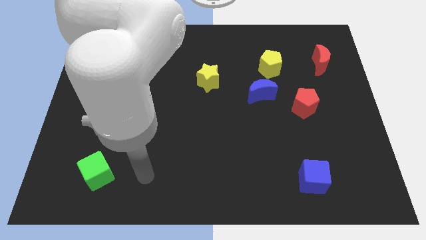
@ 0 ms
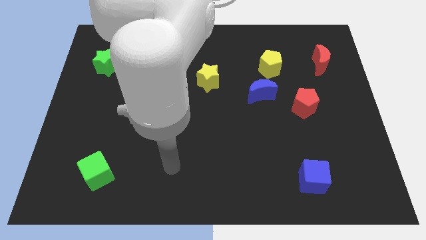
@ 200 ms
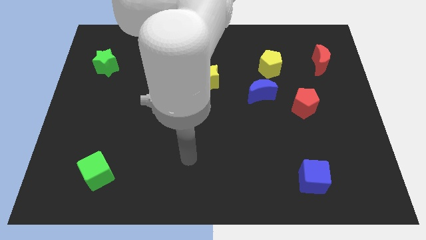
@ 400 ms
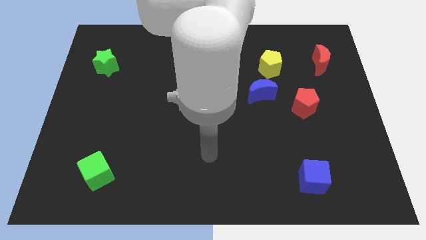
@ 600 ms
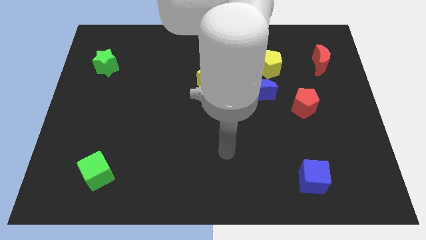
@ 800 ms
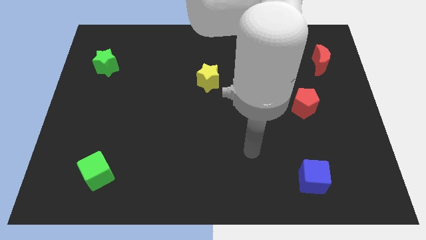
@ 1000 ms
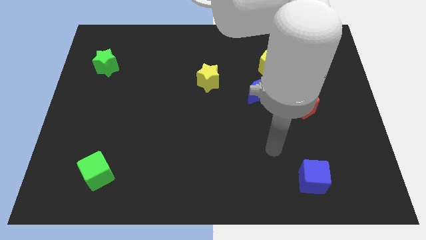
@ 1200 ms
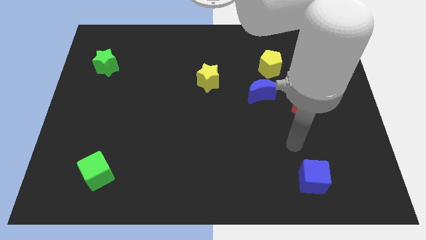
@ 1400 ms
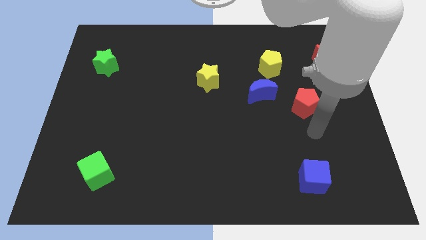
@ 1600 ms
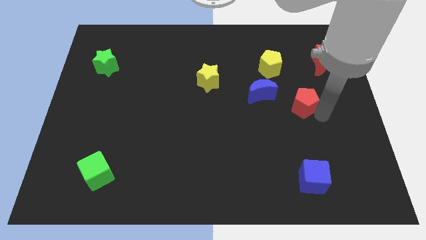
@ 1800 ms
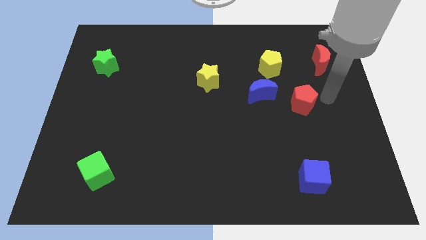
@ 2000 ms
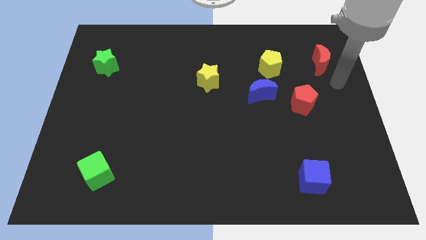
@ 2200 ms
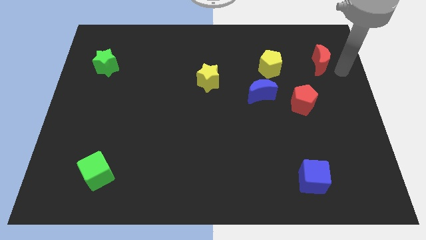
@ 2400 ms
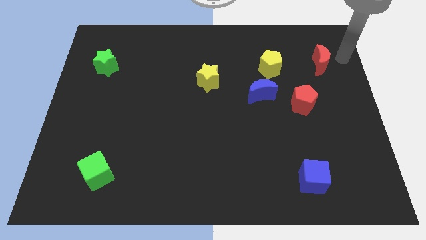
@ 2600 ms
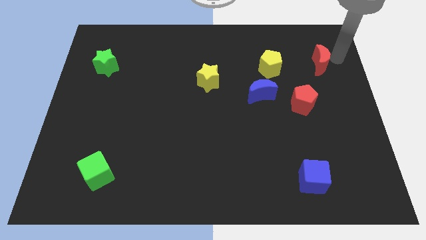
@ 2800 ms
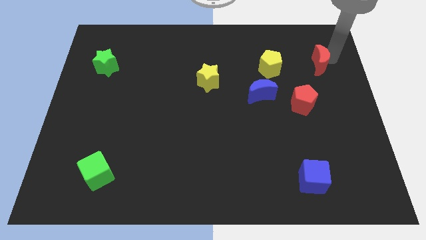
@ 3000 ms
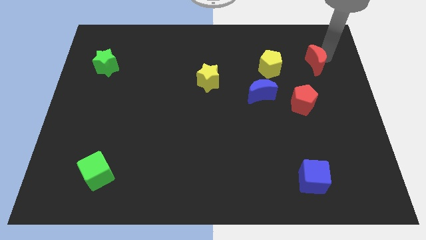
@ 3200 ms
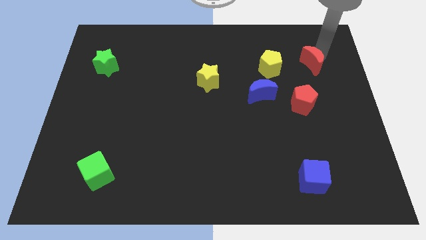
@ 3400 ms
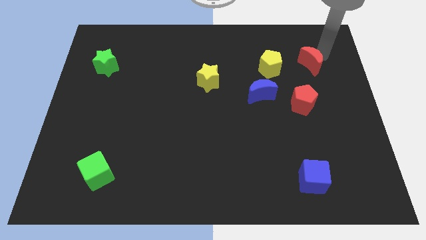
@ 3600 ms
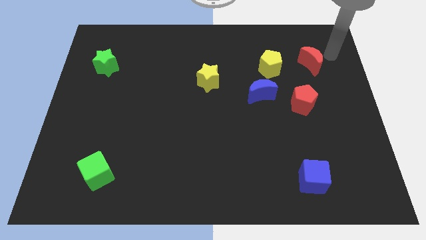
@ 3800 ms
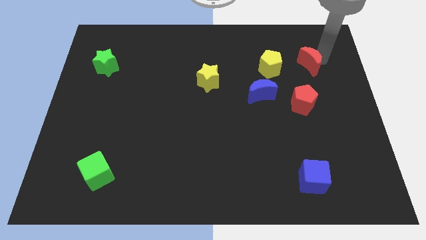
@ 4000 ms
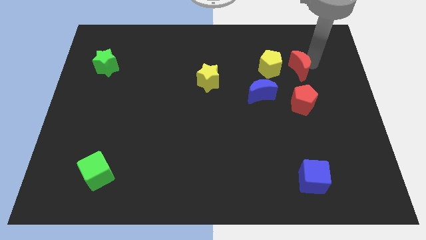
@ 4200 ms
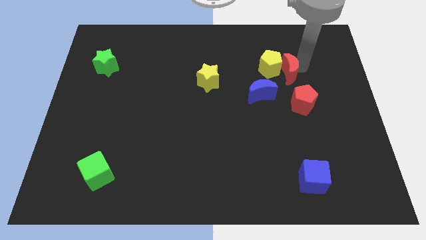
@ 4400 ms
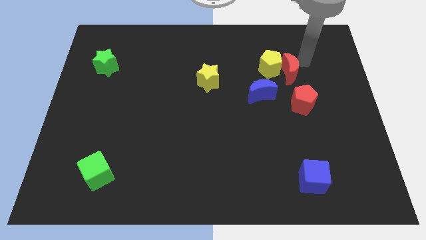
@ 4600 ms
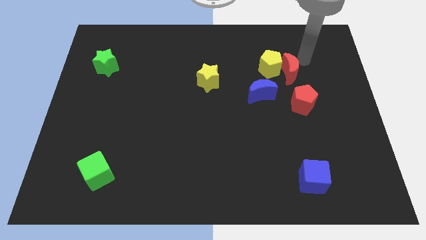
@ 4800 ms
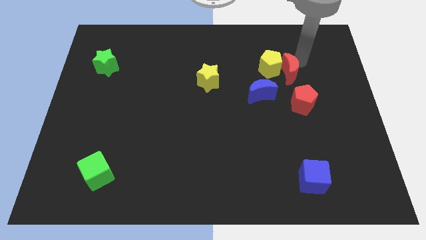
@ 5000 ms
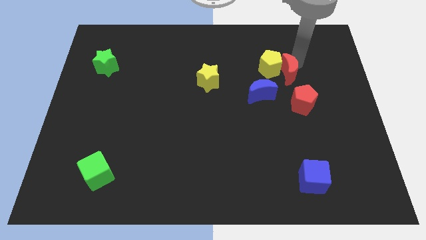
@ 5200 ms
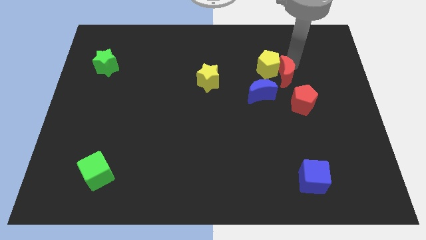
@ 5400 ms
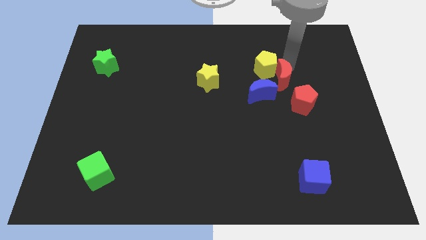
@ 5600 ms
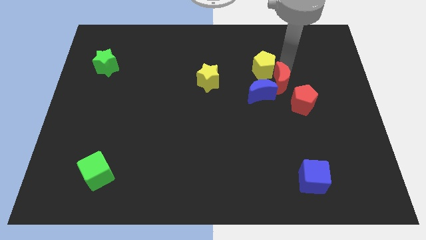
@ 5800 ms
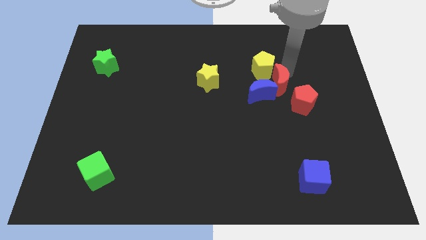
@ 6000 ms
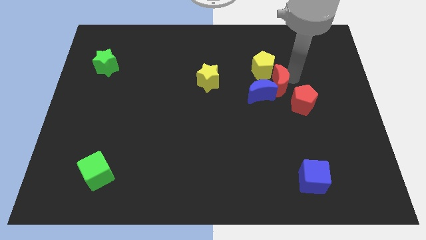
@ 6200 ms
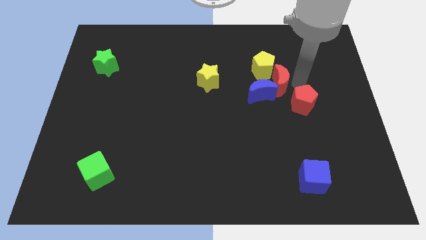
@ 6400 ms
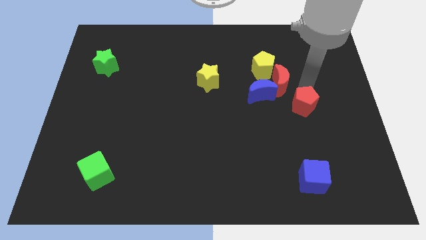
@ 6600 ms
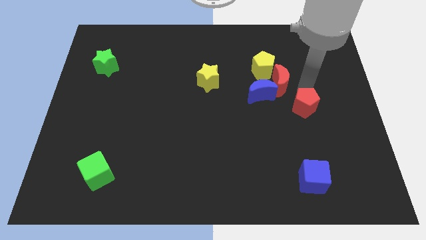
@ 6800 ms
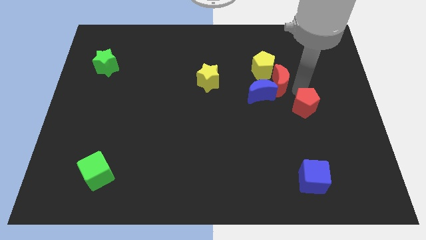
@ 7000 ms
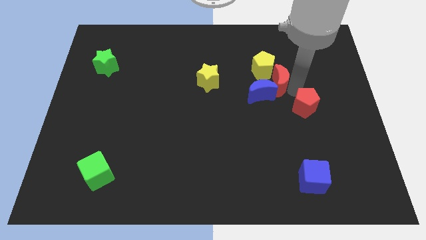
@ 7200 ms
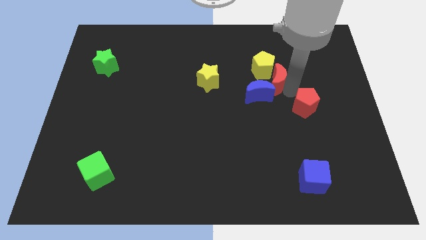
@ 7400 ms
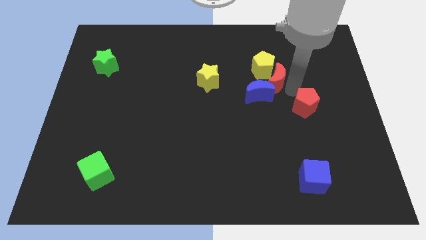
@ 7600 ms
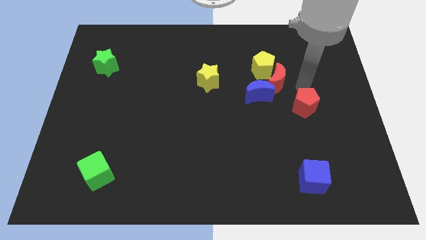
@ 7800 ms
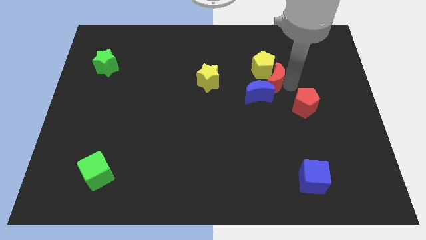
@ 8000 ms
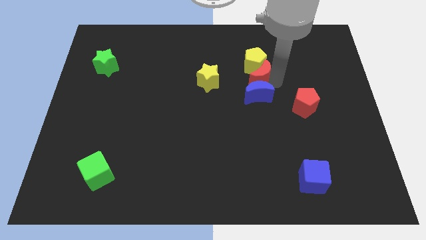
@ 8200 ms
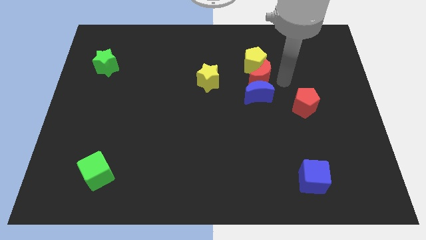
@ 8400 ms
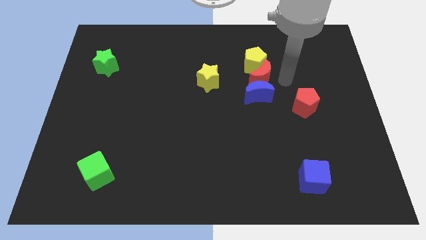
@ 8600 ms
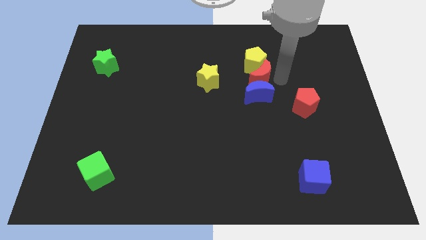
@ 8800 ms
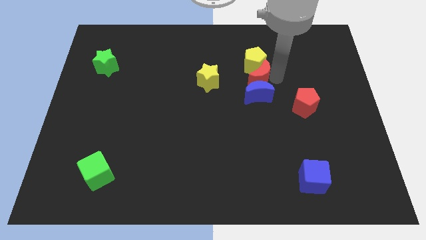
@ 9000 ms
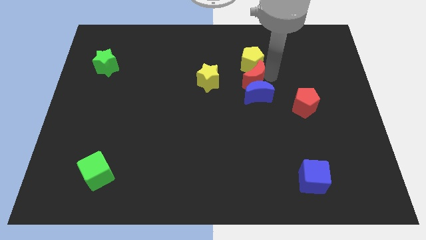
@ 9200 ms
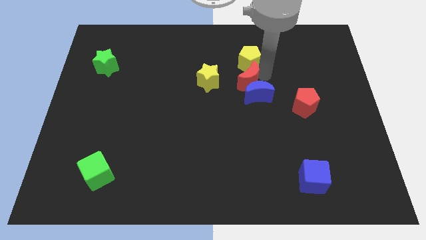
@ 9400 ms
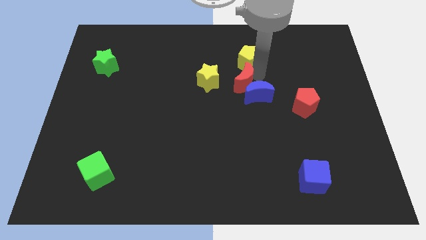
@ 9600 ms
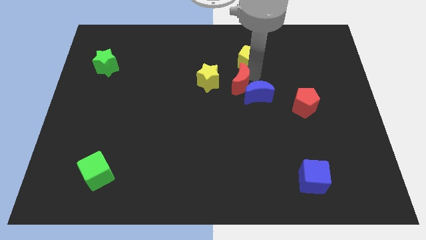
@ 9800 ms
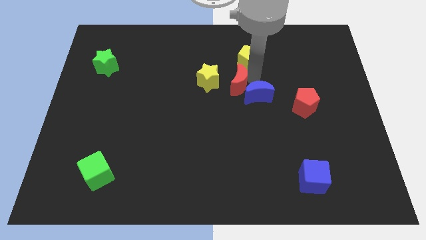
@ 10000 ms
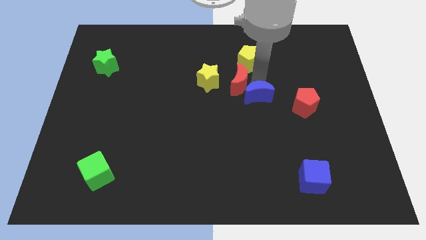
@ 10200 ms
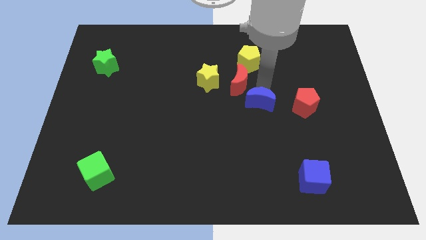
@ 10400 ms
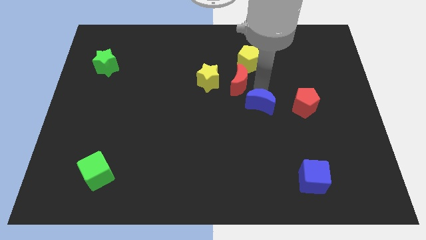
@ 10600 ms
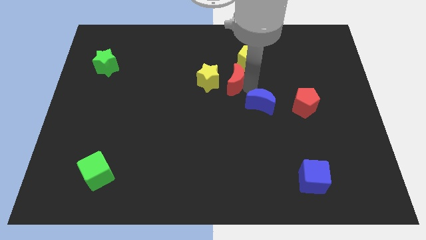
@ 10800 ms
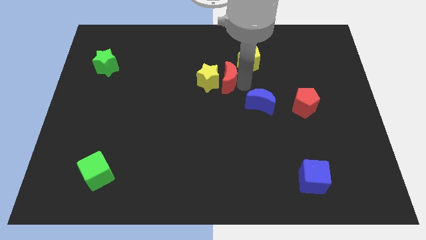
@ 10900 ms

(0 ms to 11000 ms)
put the red moon to the yellow star

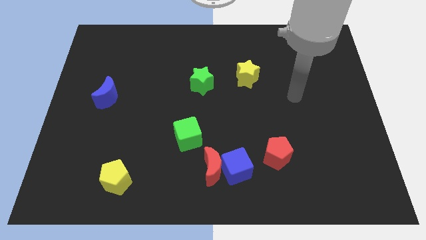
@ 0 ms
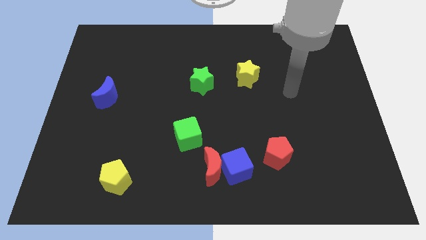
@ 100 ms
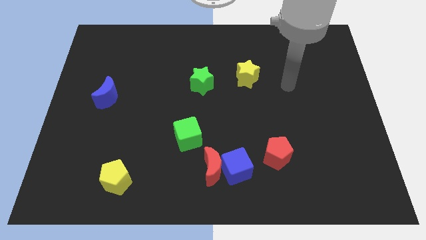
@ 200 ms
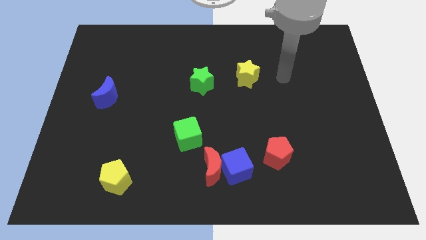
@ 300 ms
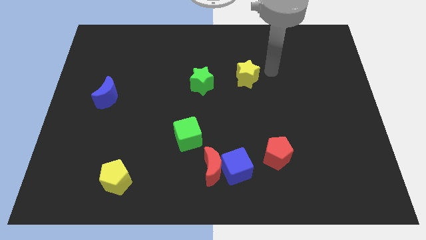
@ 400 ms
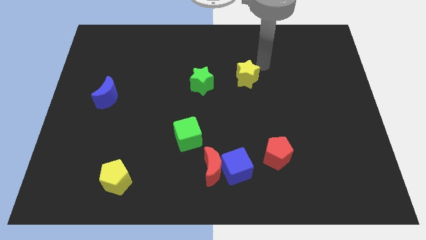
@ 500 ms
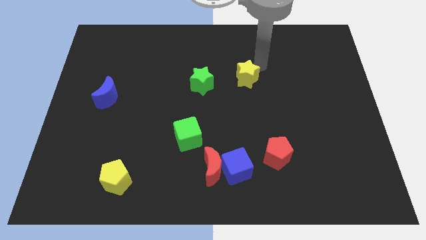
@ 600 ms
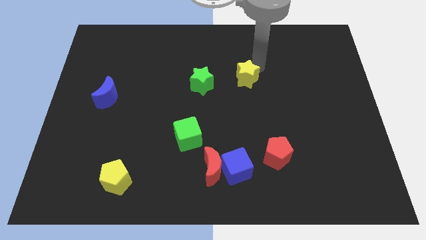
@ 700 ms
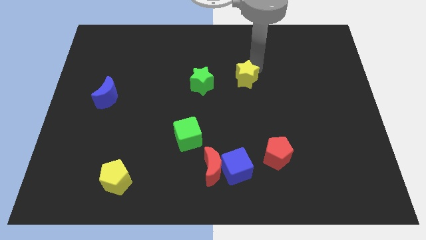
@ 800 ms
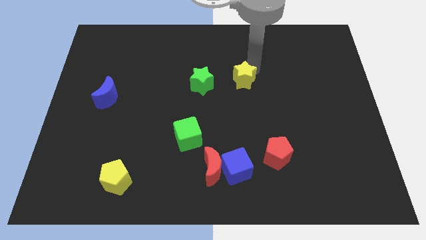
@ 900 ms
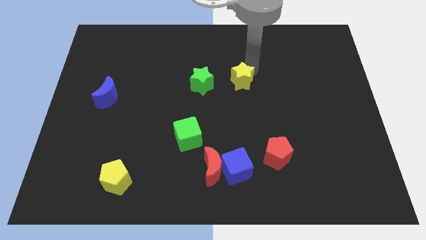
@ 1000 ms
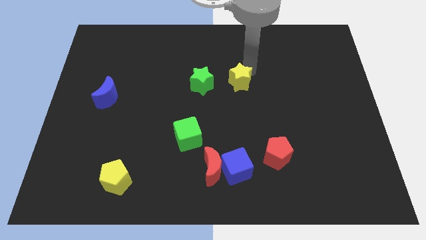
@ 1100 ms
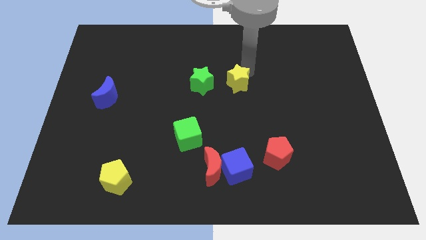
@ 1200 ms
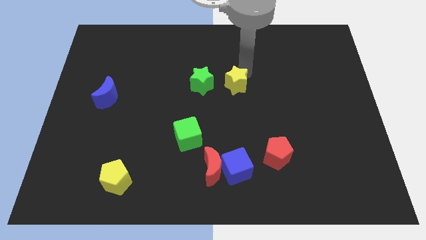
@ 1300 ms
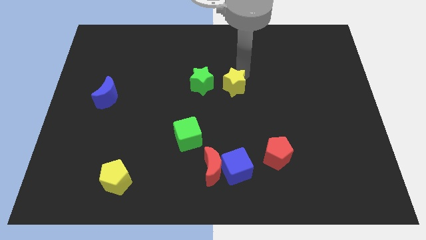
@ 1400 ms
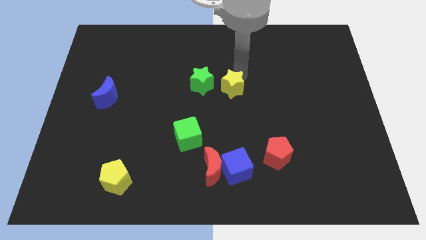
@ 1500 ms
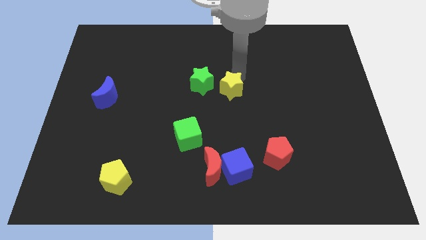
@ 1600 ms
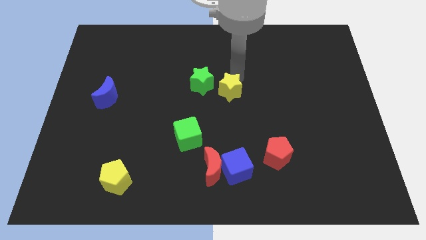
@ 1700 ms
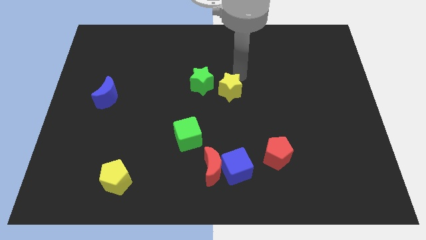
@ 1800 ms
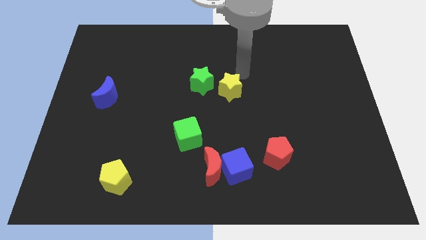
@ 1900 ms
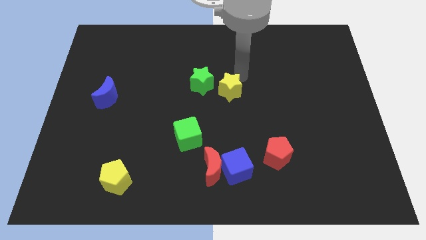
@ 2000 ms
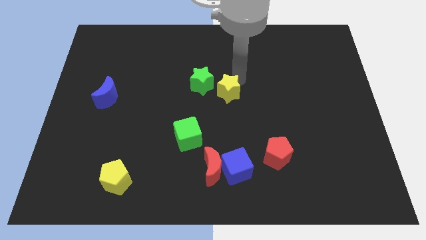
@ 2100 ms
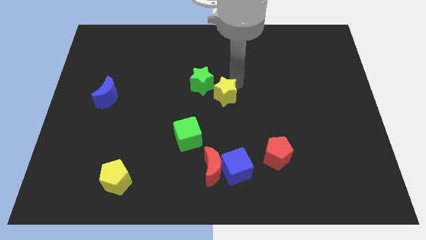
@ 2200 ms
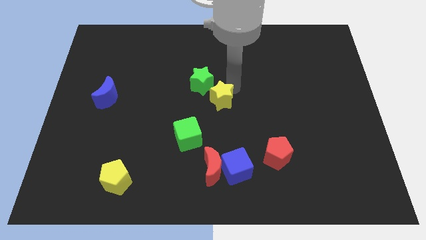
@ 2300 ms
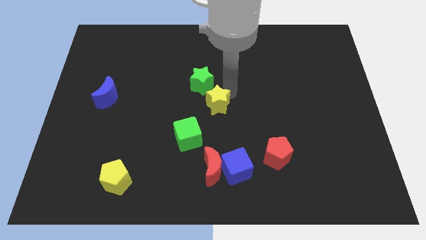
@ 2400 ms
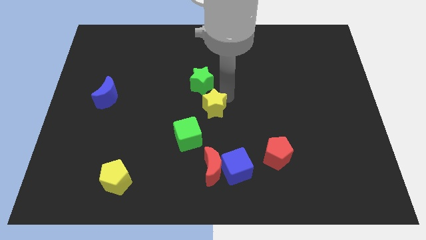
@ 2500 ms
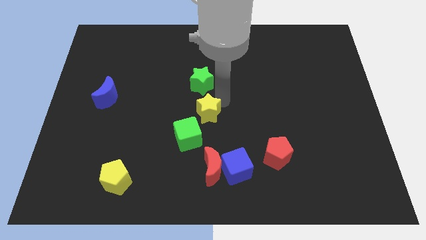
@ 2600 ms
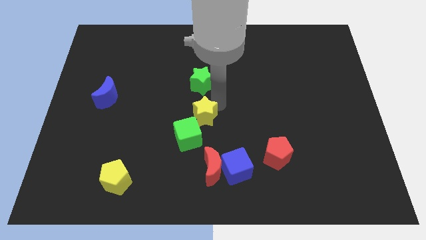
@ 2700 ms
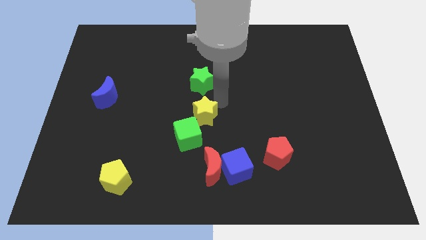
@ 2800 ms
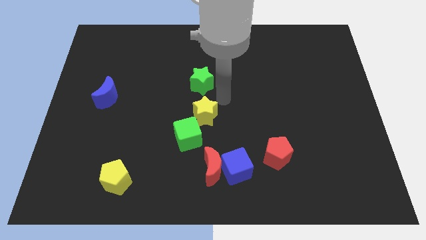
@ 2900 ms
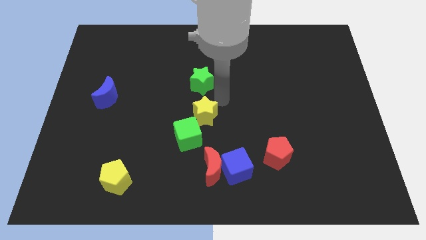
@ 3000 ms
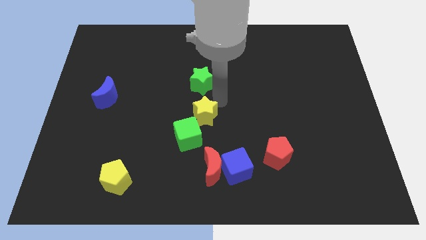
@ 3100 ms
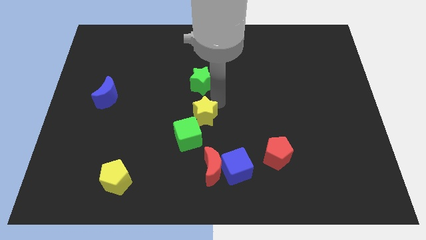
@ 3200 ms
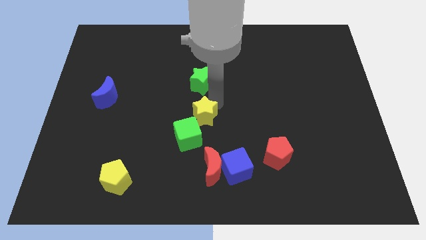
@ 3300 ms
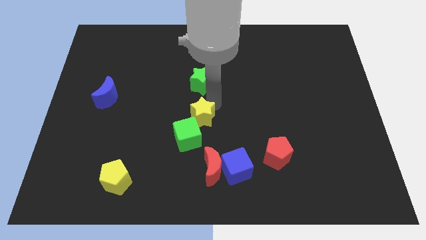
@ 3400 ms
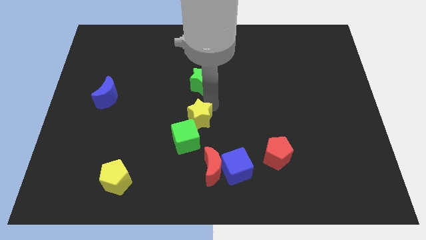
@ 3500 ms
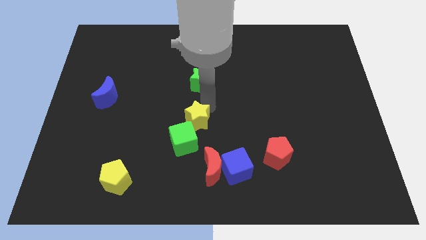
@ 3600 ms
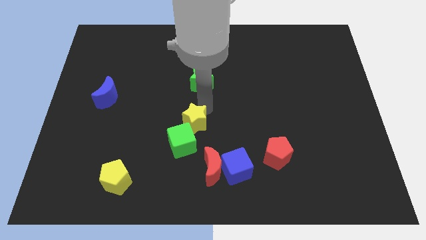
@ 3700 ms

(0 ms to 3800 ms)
put the yellow star next to the green cube
